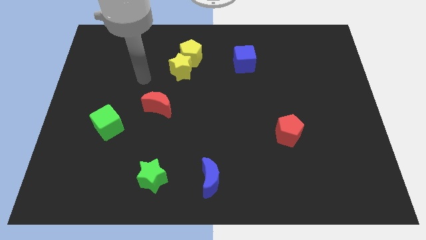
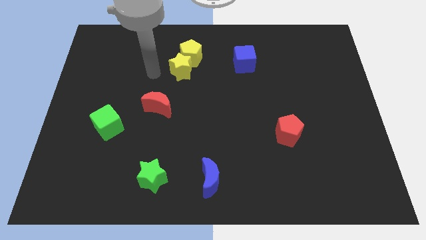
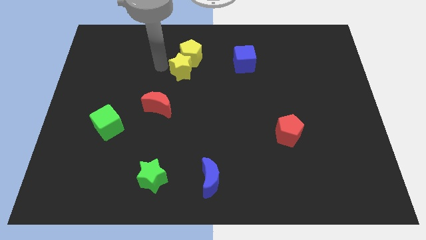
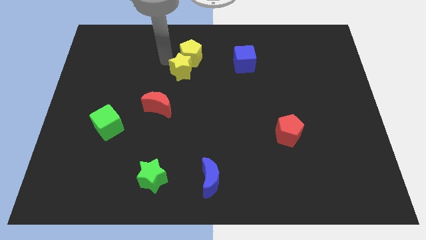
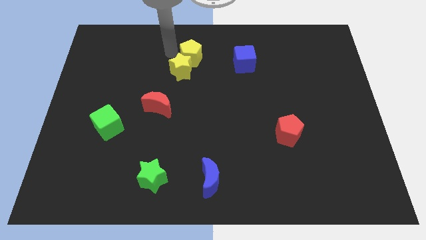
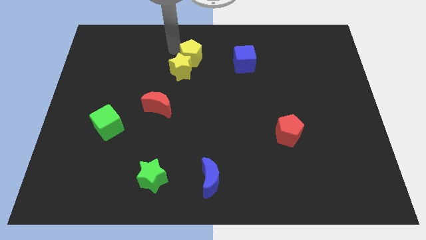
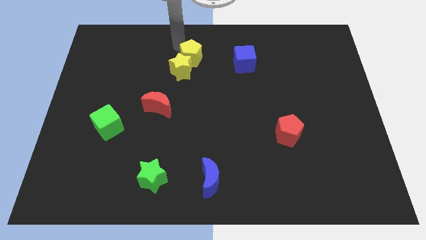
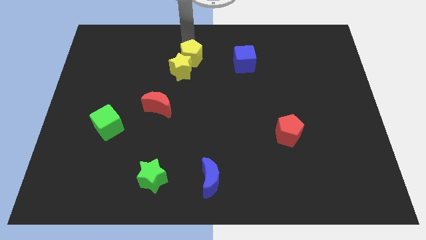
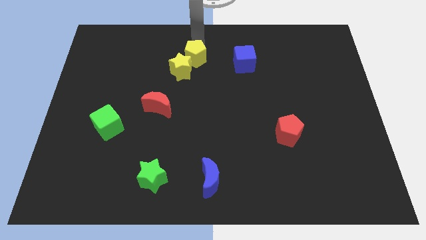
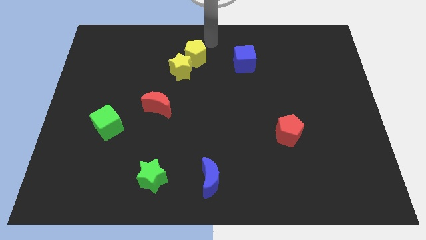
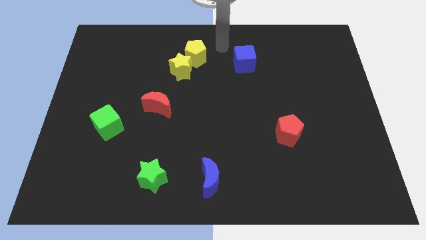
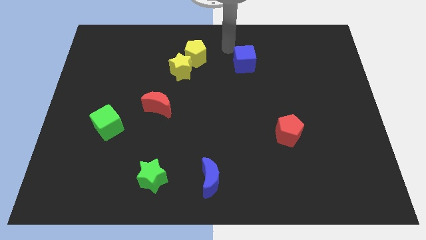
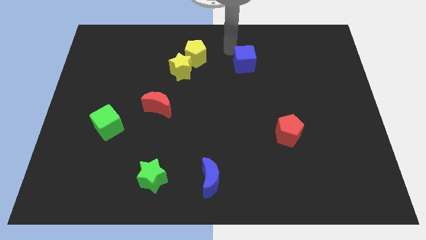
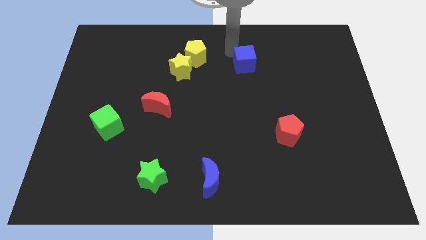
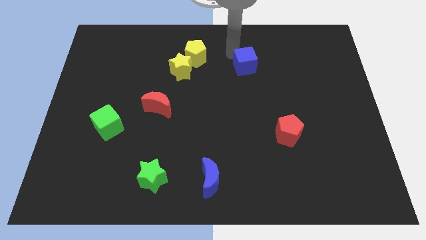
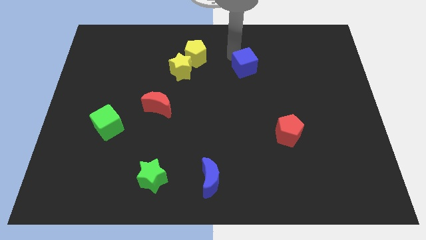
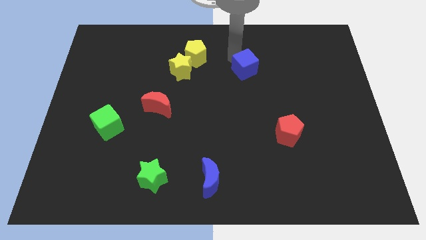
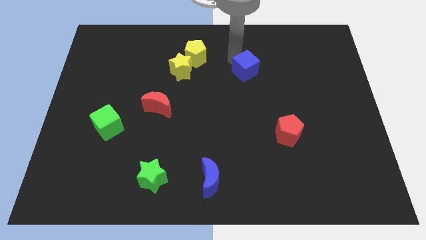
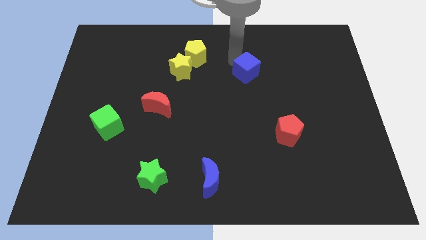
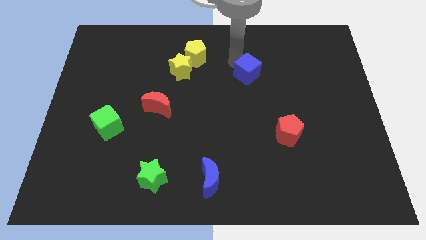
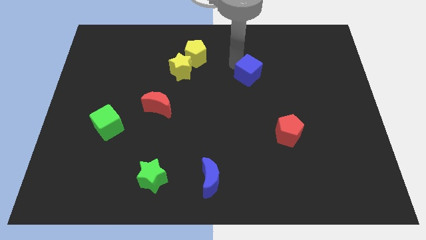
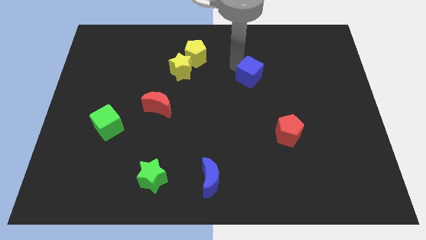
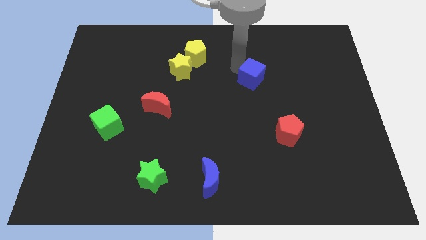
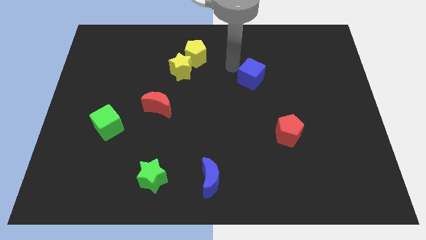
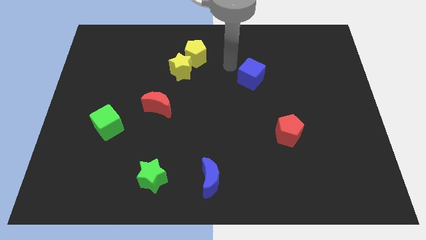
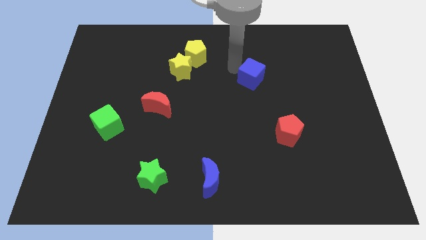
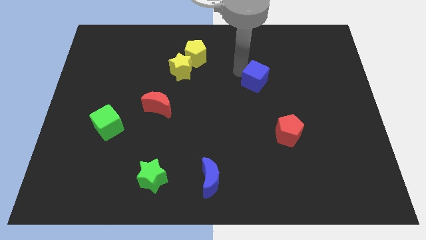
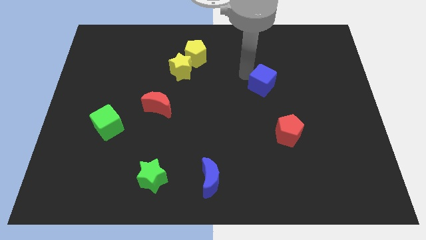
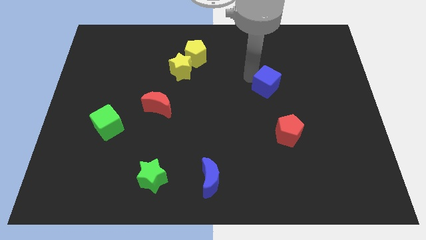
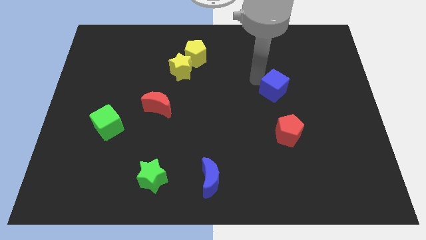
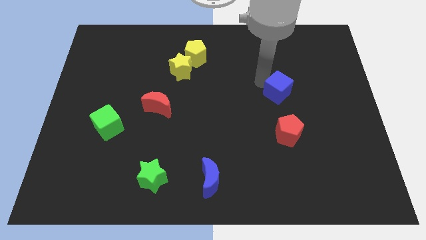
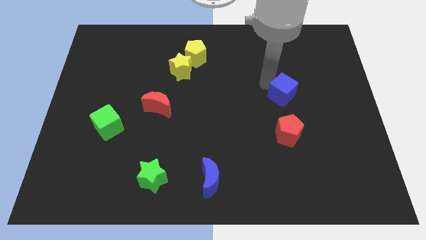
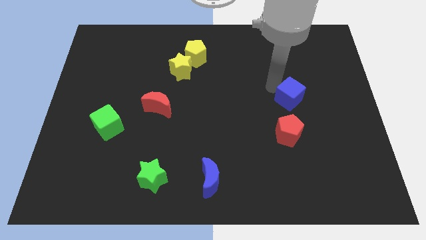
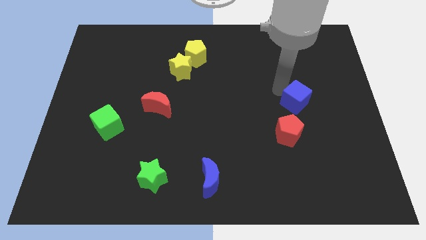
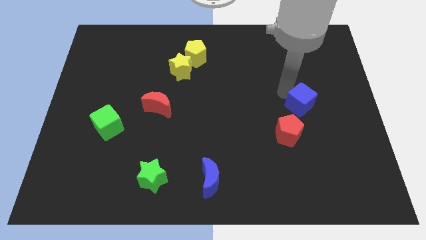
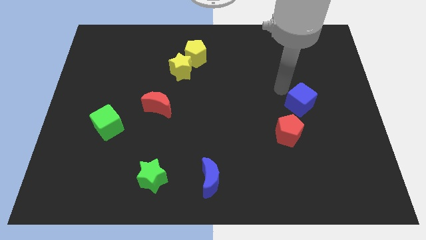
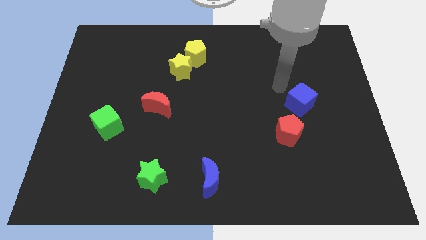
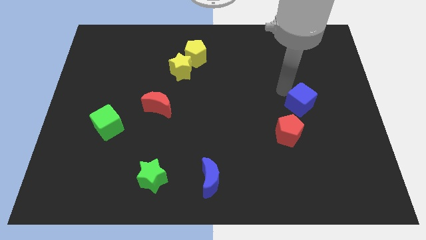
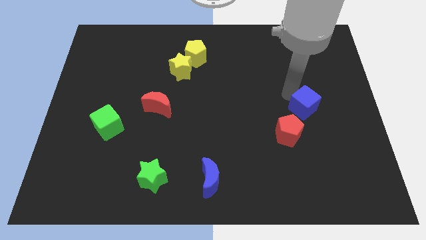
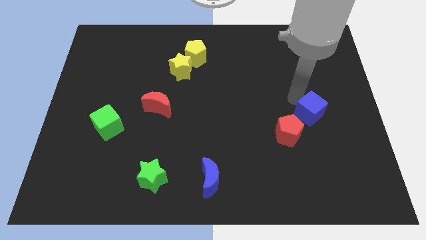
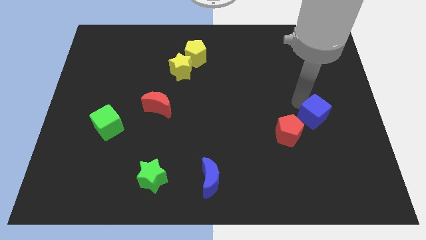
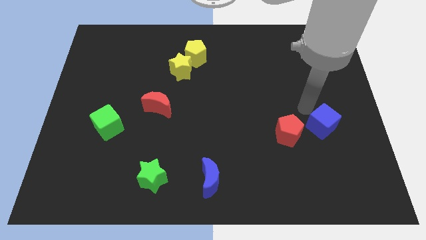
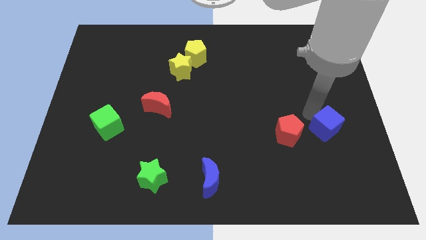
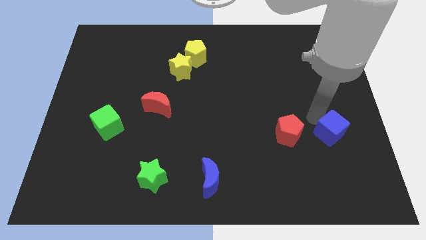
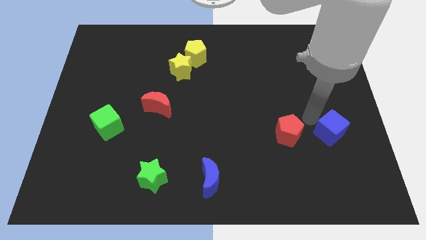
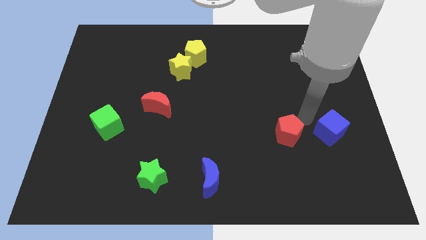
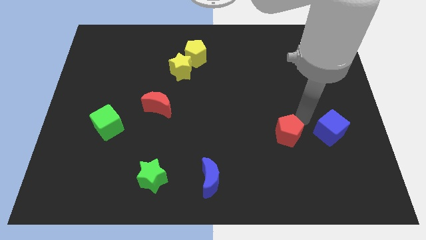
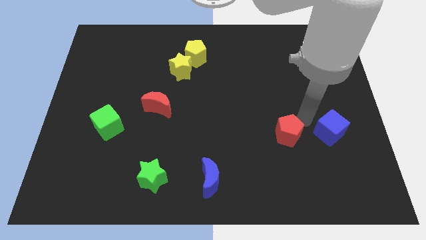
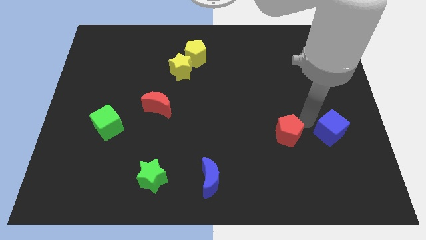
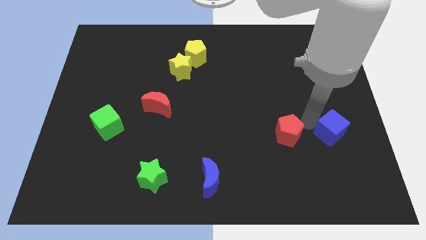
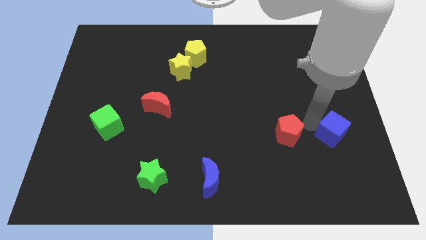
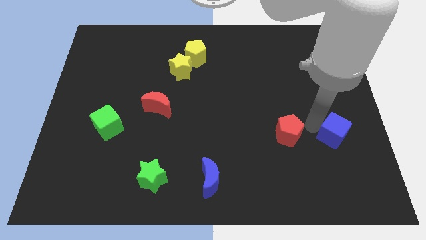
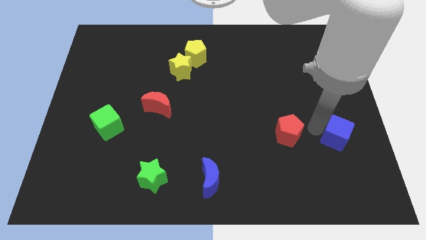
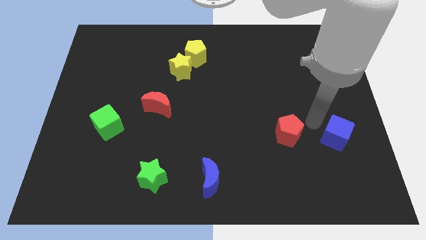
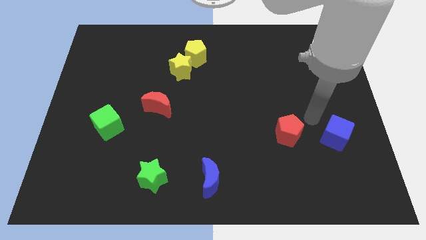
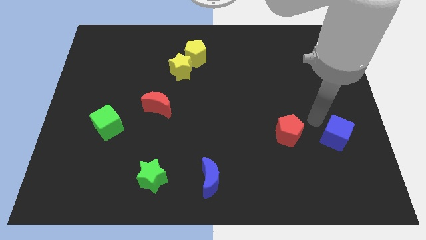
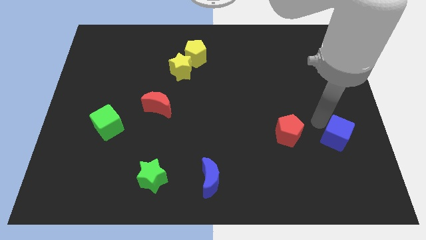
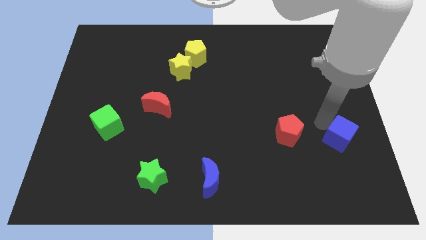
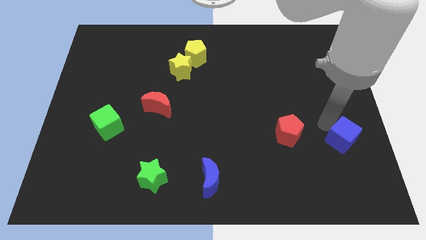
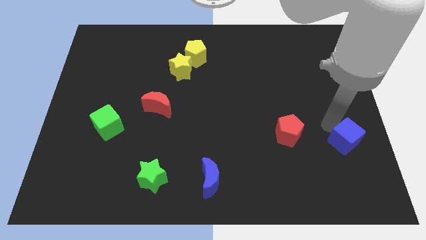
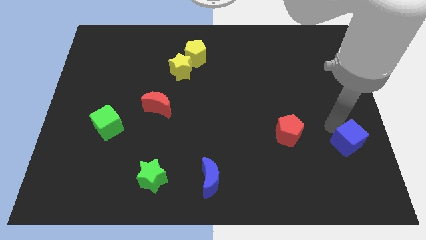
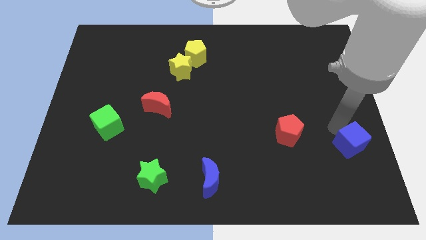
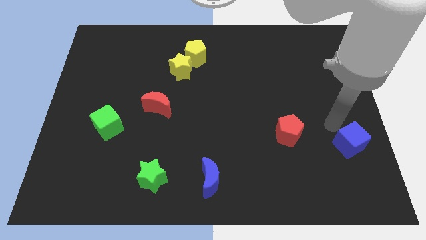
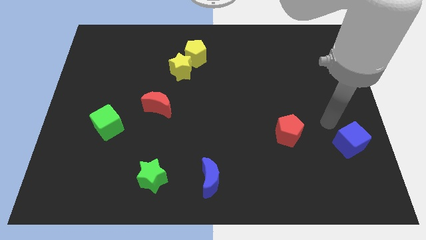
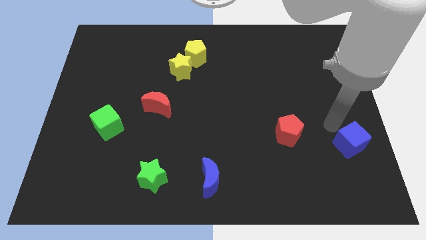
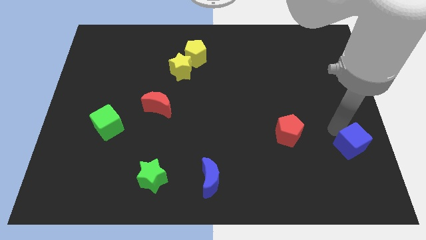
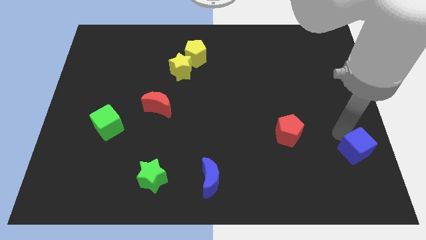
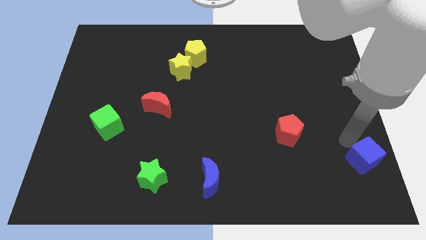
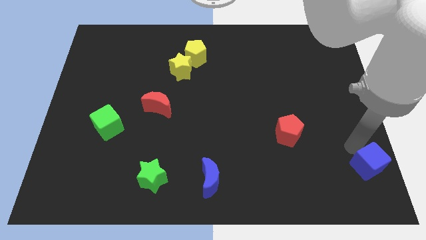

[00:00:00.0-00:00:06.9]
put the blue cube to the bottom right
